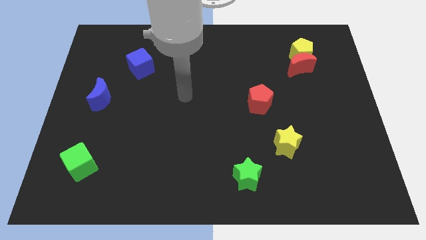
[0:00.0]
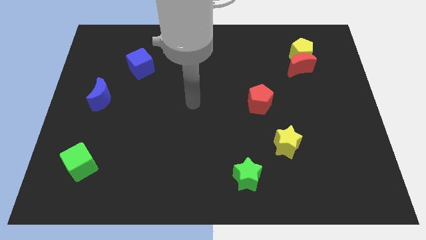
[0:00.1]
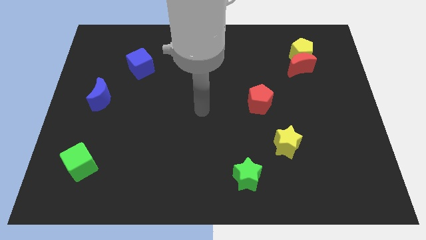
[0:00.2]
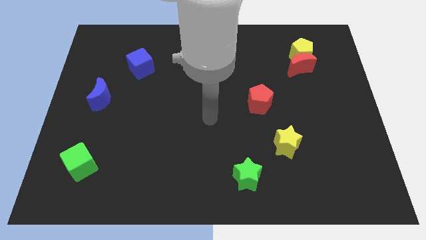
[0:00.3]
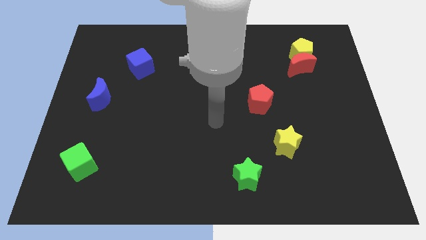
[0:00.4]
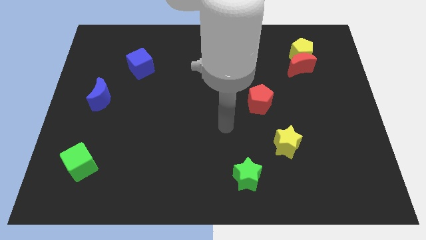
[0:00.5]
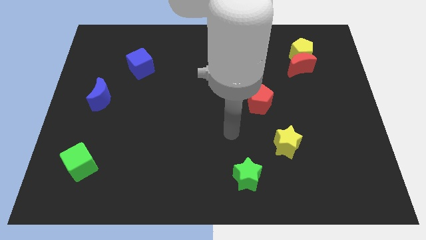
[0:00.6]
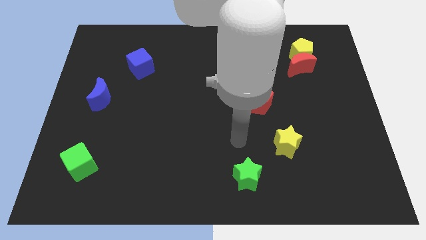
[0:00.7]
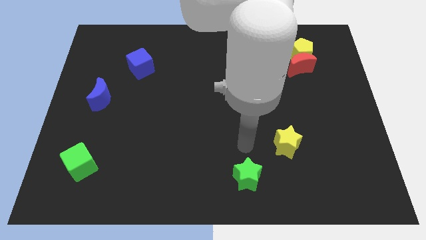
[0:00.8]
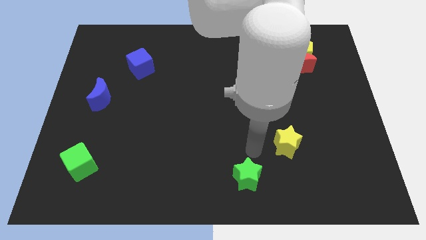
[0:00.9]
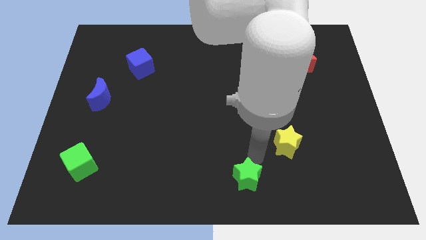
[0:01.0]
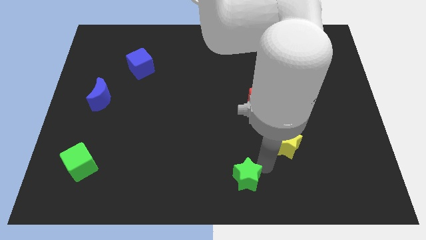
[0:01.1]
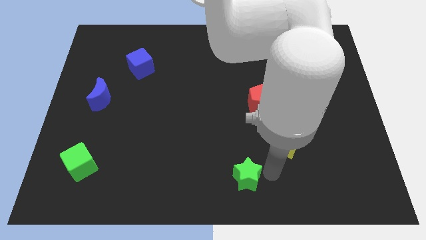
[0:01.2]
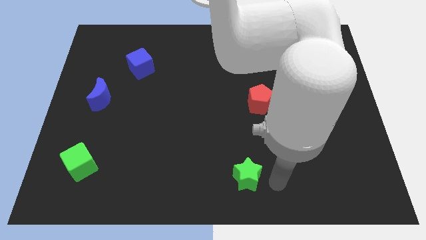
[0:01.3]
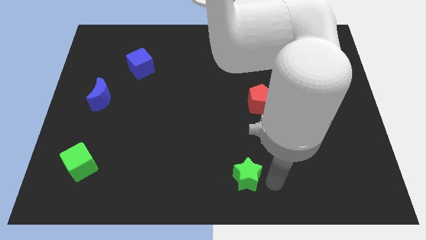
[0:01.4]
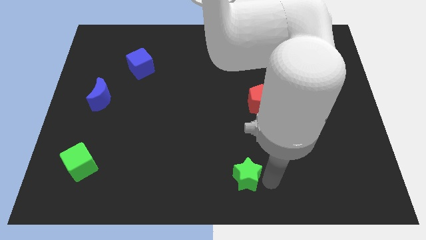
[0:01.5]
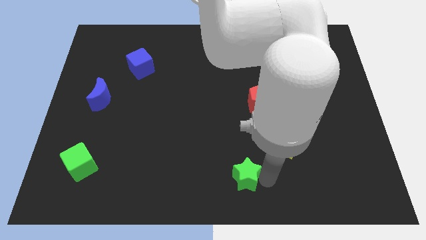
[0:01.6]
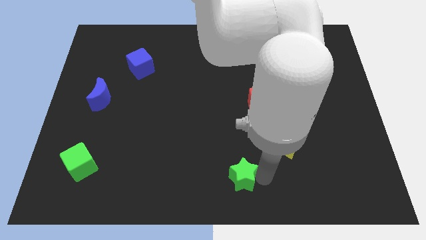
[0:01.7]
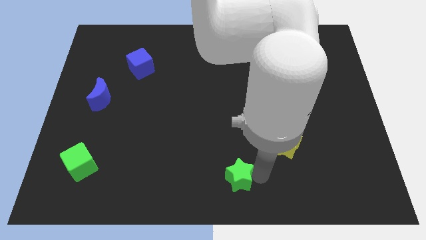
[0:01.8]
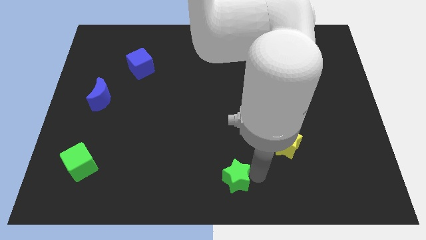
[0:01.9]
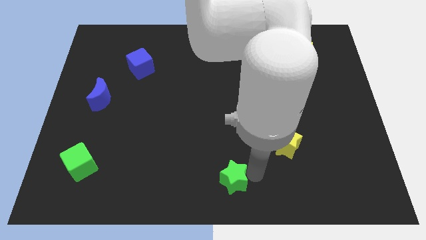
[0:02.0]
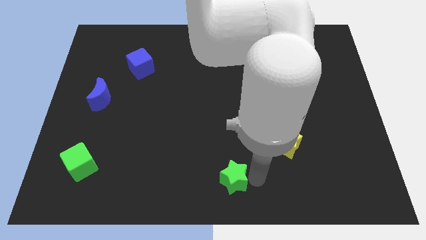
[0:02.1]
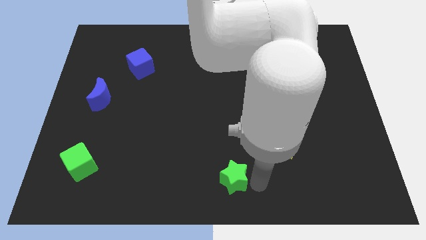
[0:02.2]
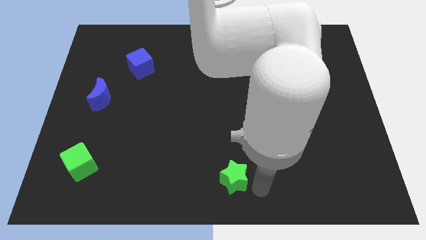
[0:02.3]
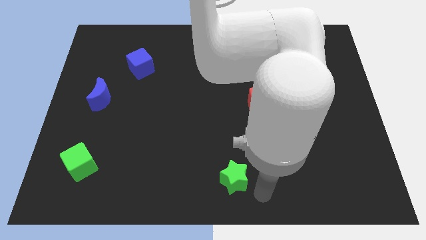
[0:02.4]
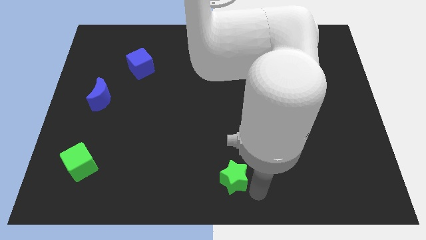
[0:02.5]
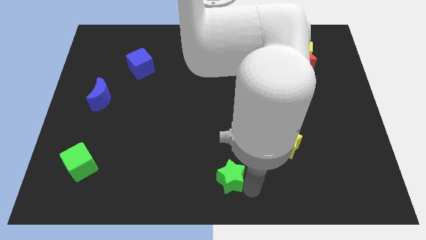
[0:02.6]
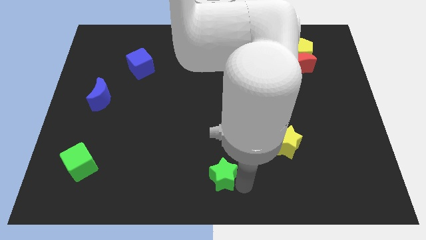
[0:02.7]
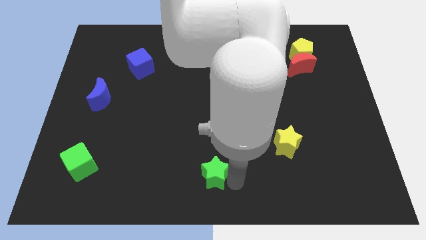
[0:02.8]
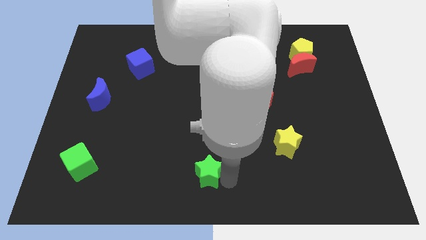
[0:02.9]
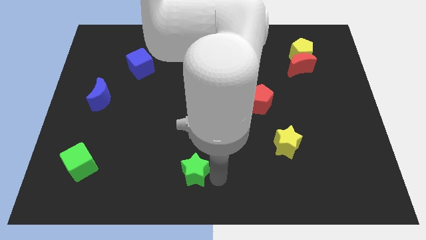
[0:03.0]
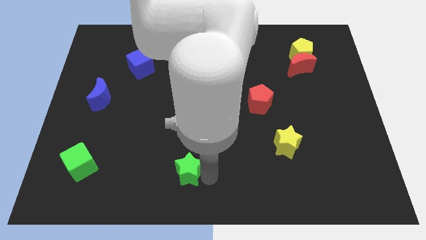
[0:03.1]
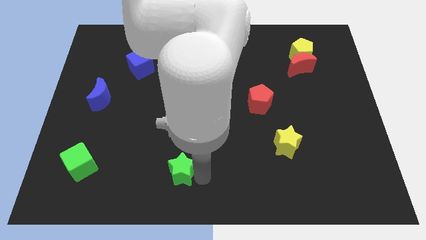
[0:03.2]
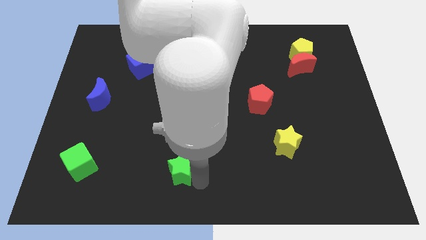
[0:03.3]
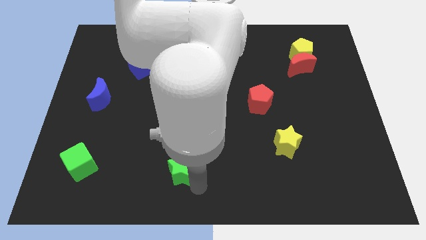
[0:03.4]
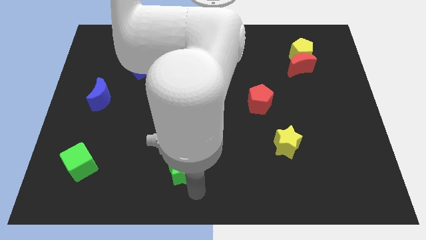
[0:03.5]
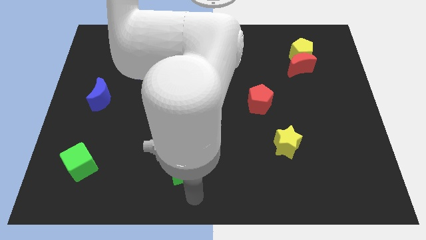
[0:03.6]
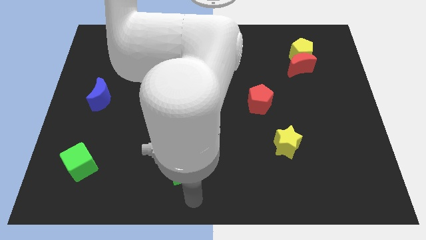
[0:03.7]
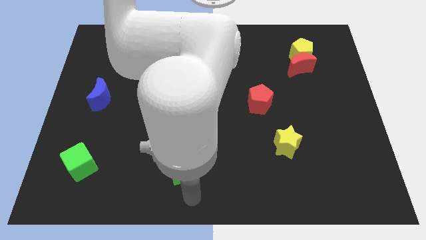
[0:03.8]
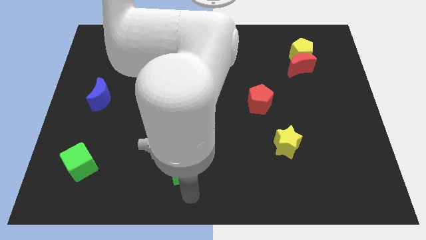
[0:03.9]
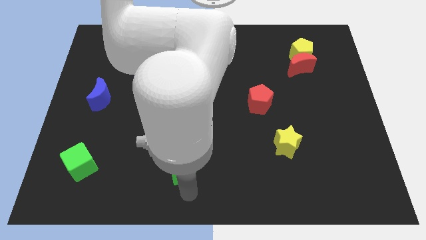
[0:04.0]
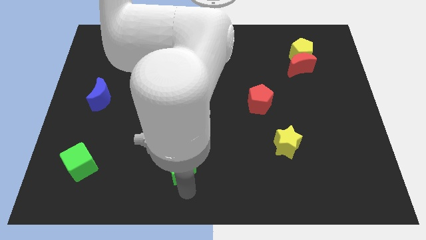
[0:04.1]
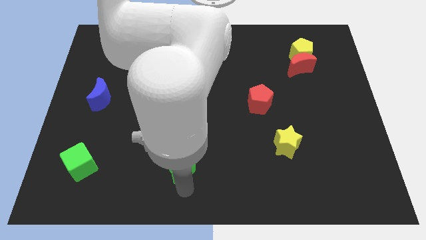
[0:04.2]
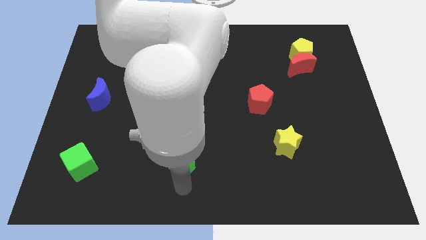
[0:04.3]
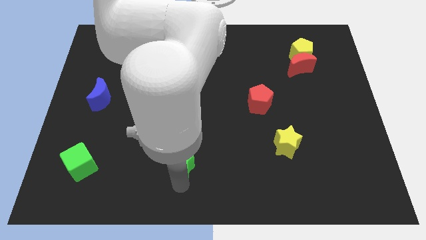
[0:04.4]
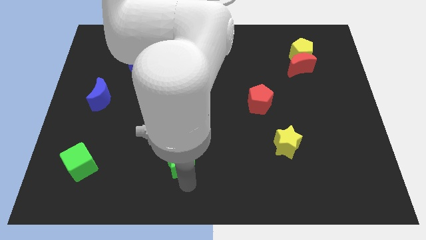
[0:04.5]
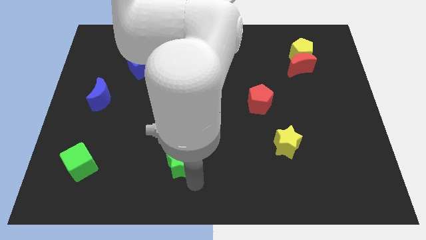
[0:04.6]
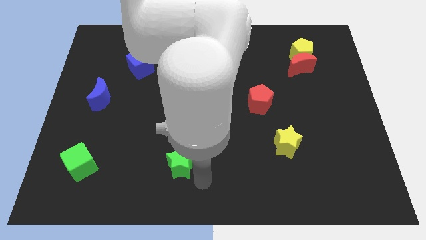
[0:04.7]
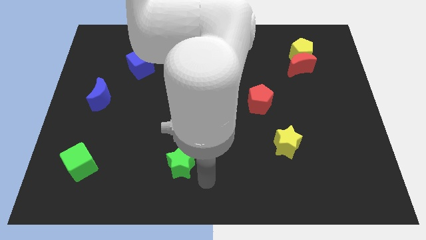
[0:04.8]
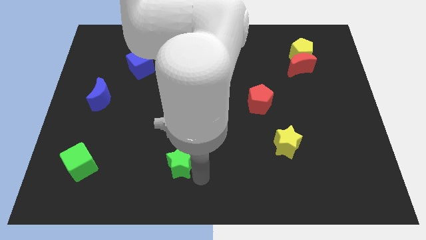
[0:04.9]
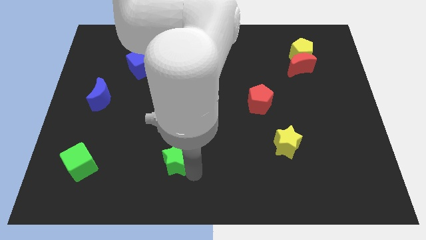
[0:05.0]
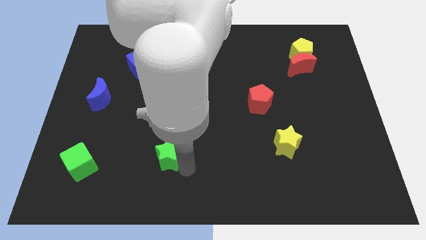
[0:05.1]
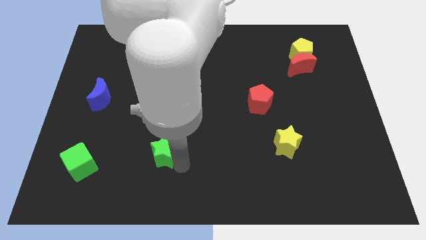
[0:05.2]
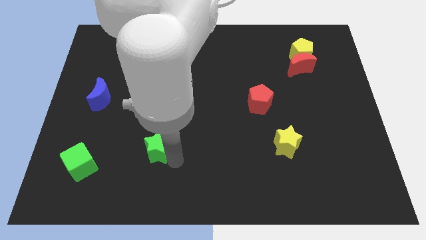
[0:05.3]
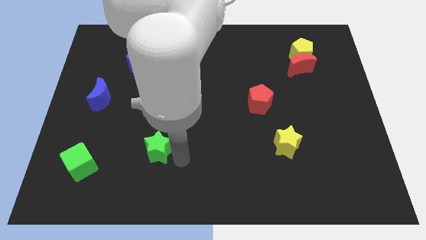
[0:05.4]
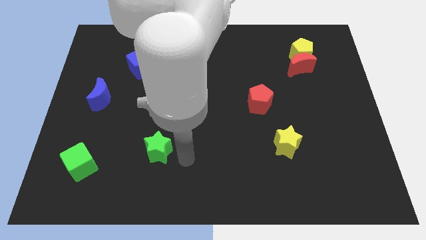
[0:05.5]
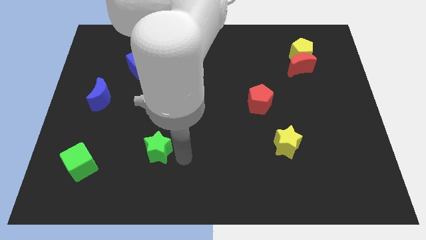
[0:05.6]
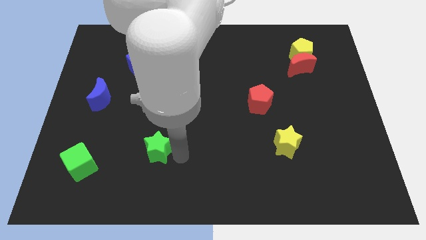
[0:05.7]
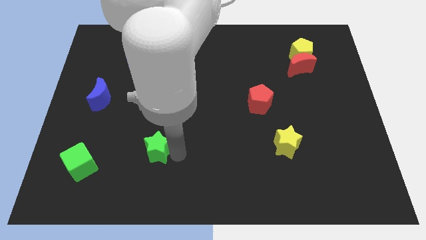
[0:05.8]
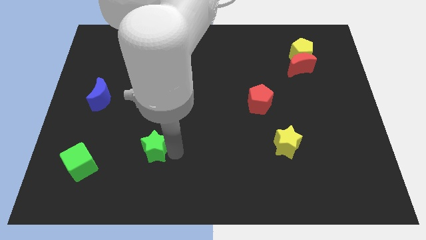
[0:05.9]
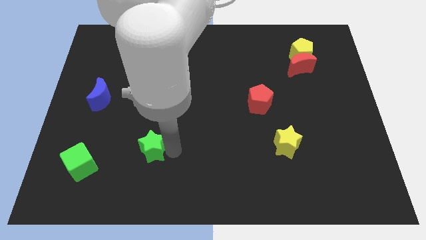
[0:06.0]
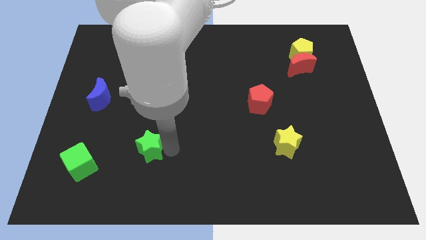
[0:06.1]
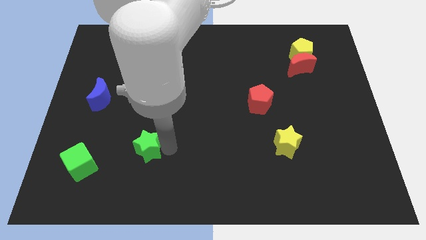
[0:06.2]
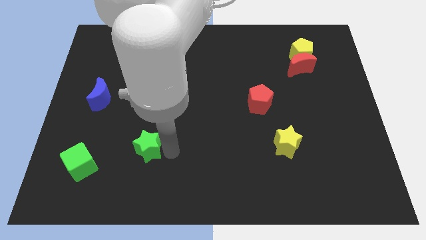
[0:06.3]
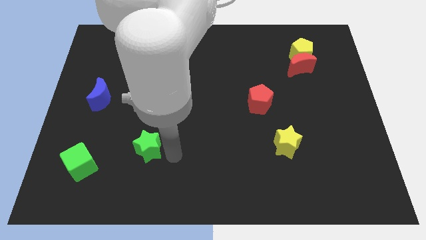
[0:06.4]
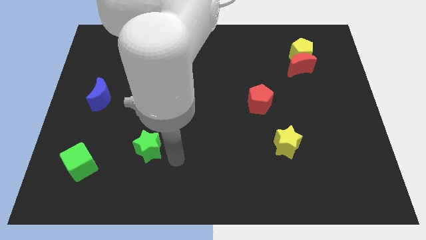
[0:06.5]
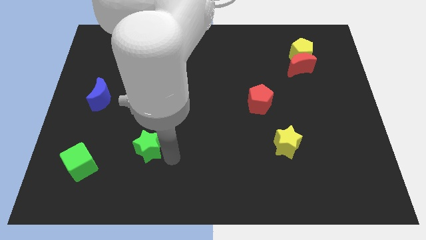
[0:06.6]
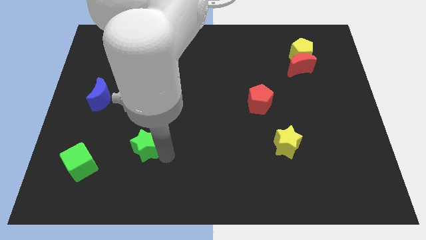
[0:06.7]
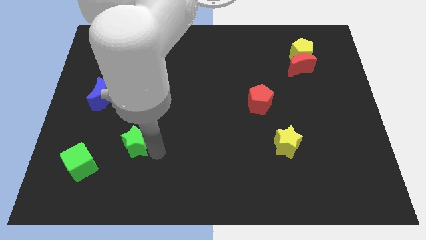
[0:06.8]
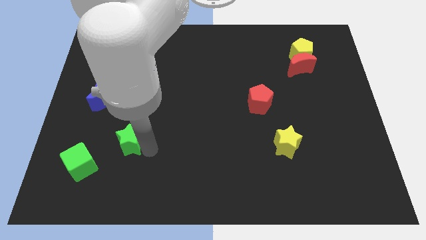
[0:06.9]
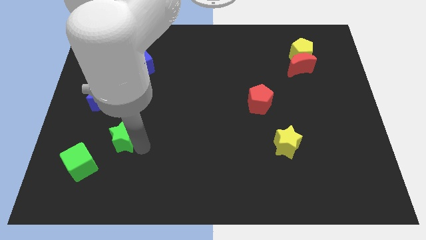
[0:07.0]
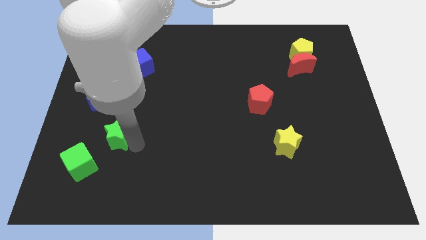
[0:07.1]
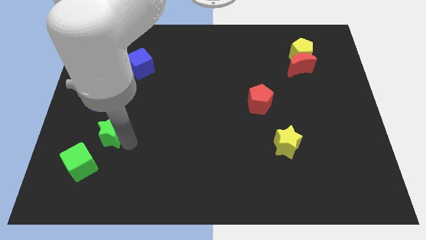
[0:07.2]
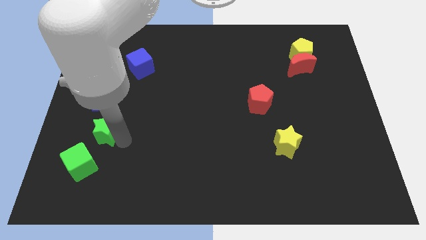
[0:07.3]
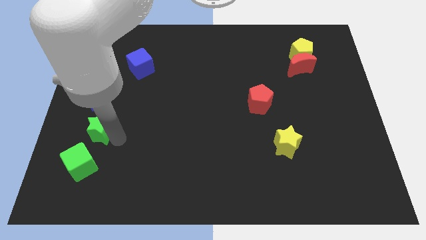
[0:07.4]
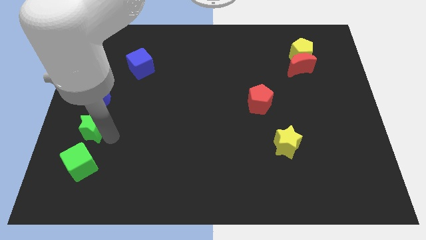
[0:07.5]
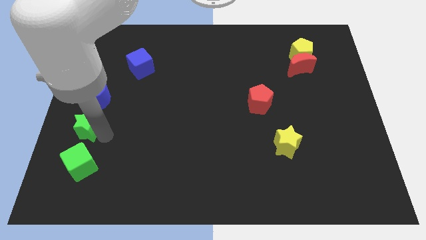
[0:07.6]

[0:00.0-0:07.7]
slide the green star to the left side
